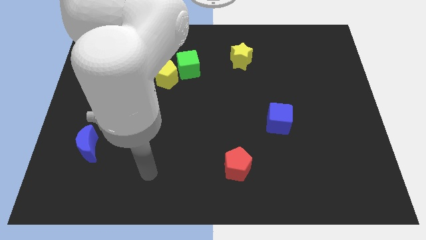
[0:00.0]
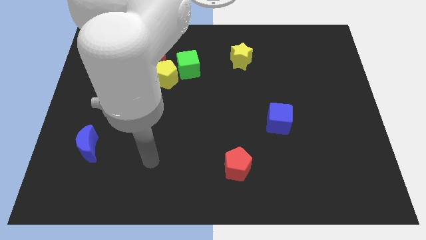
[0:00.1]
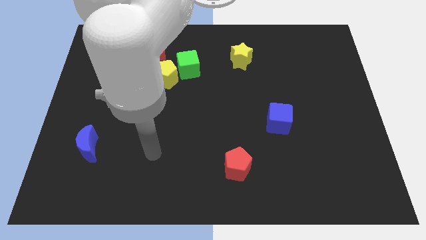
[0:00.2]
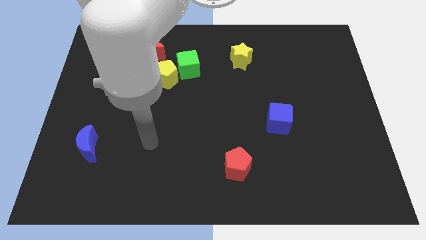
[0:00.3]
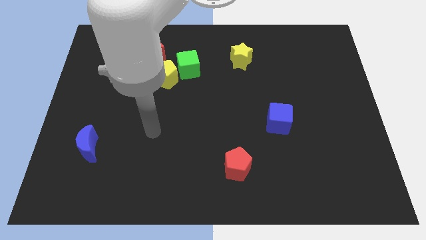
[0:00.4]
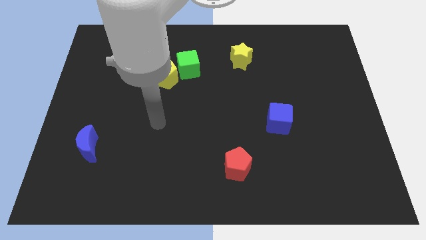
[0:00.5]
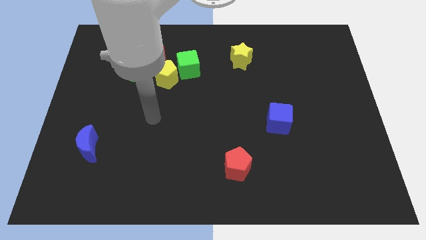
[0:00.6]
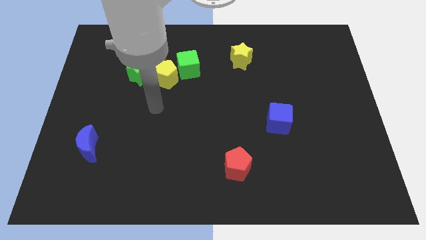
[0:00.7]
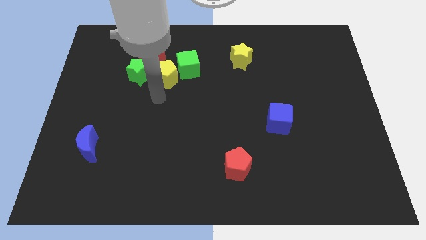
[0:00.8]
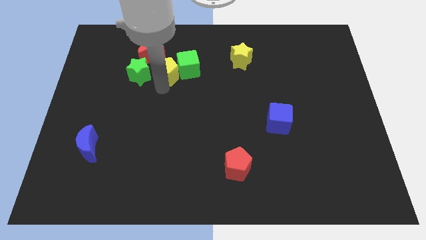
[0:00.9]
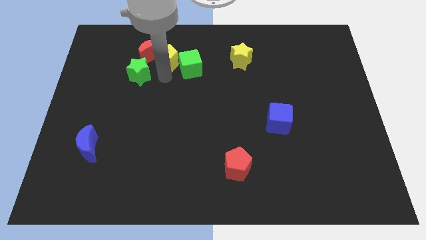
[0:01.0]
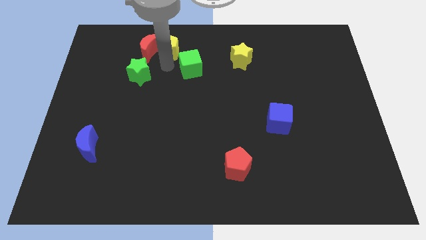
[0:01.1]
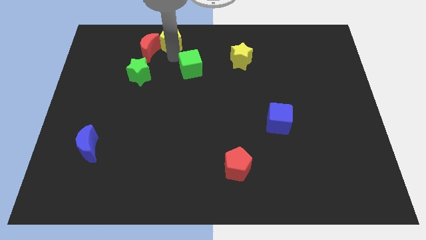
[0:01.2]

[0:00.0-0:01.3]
separate the green cube from the yellow pentagon

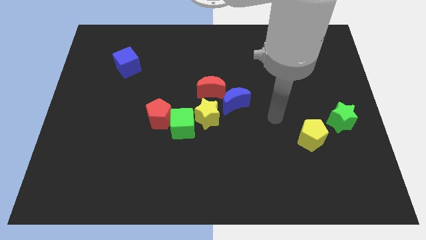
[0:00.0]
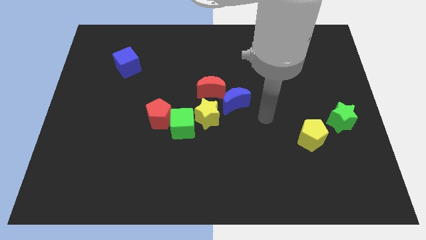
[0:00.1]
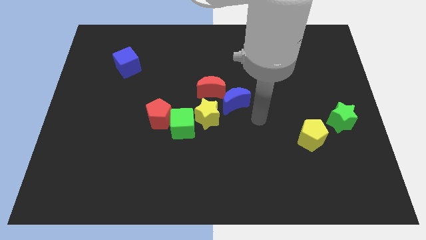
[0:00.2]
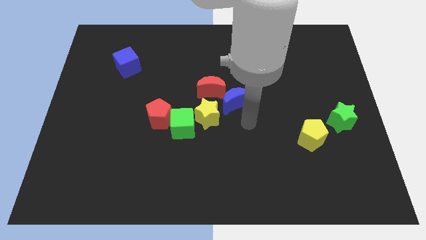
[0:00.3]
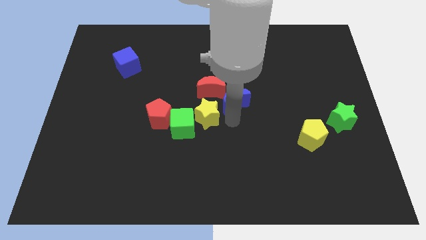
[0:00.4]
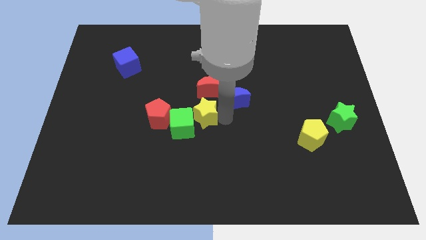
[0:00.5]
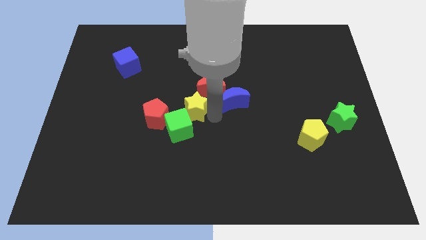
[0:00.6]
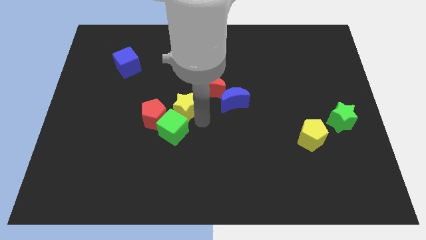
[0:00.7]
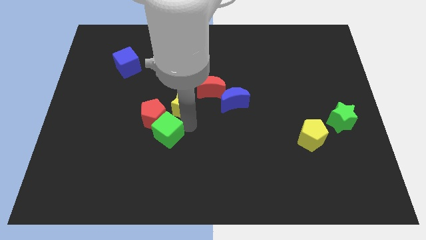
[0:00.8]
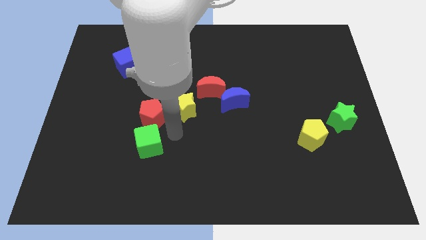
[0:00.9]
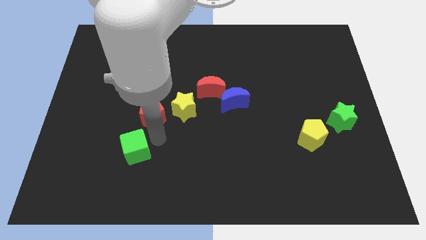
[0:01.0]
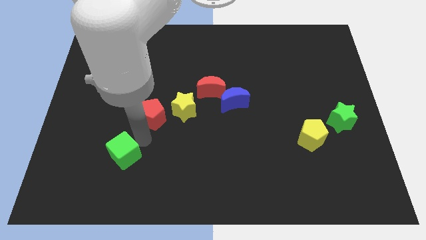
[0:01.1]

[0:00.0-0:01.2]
pull the red pentagon apart from the green cube

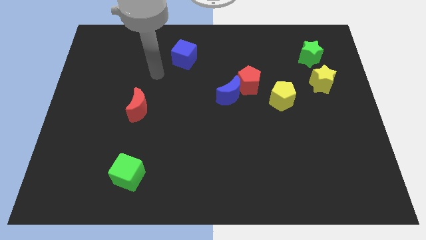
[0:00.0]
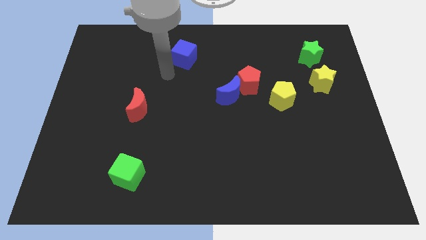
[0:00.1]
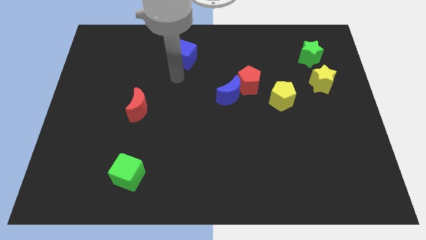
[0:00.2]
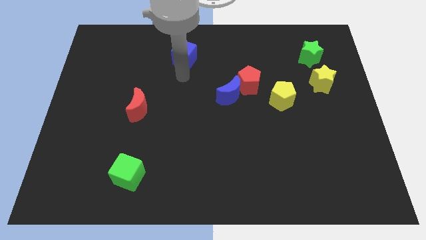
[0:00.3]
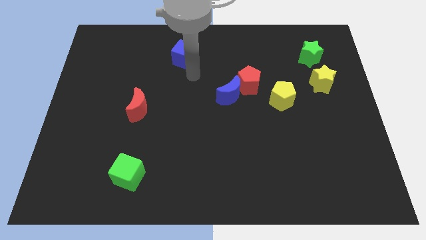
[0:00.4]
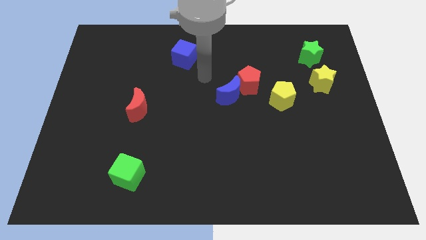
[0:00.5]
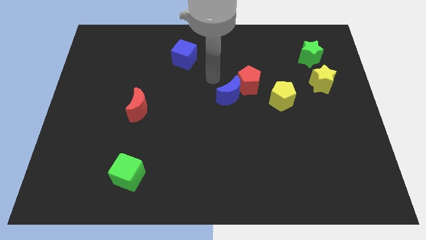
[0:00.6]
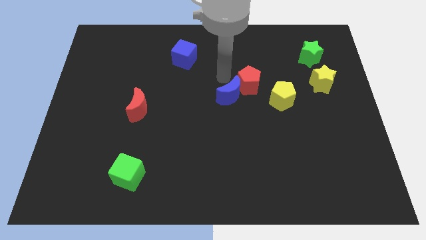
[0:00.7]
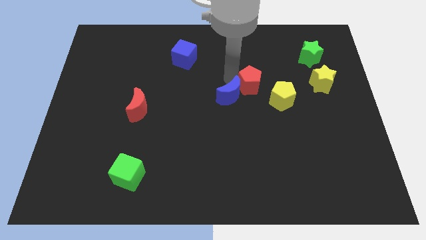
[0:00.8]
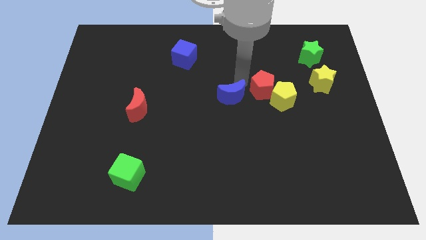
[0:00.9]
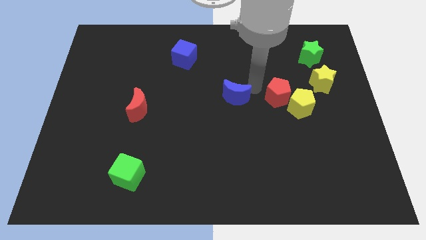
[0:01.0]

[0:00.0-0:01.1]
pull the blue moon apart from the red pentagon

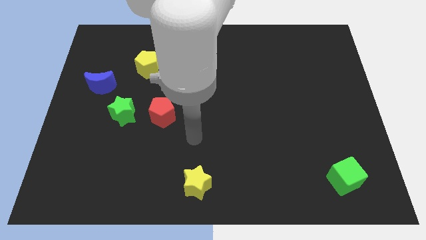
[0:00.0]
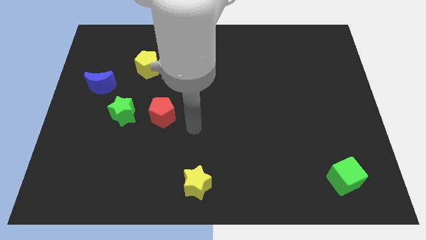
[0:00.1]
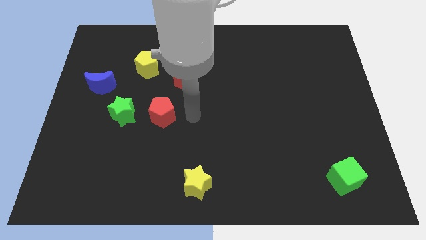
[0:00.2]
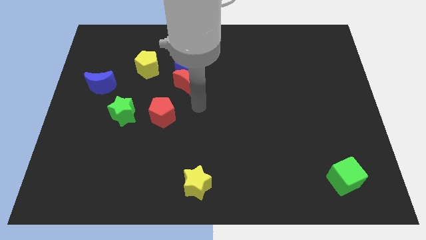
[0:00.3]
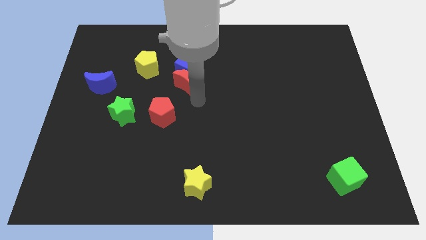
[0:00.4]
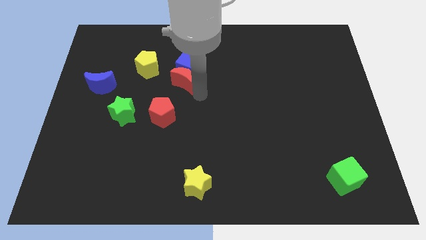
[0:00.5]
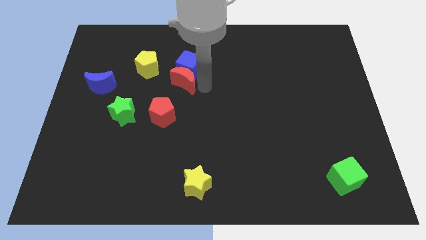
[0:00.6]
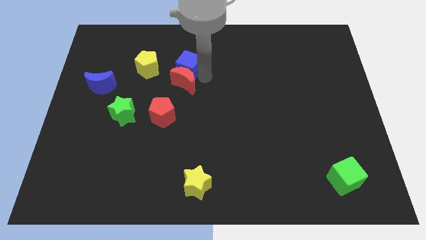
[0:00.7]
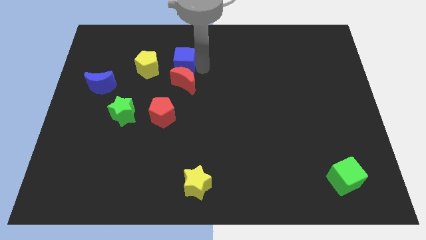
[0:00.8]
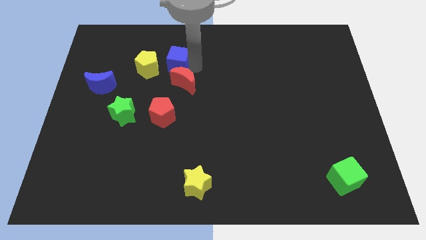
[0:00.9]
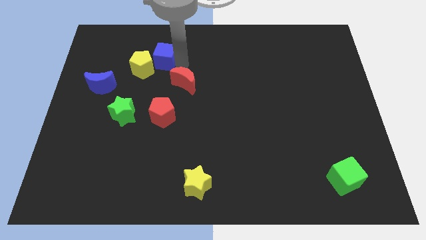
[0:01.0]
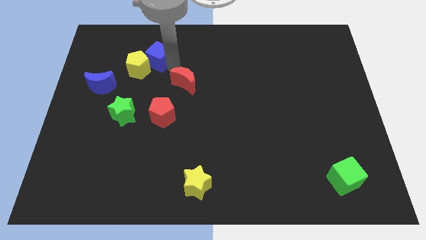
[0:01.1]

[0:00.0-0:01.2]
pull the red moon apart from the blue cube

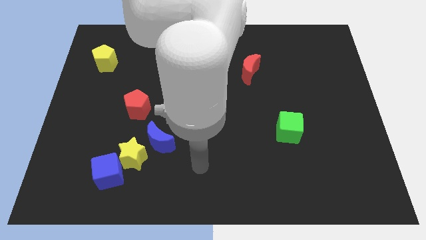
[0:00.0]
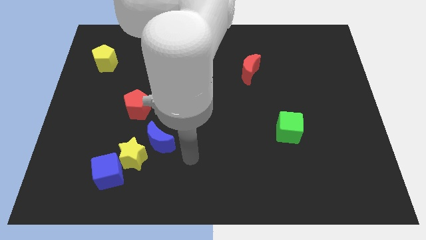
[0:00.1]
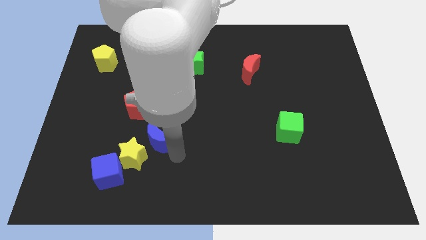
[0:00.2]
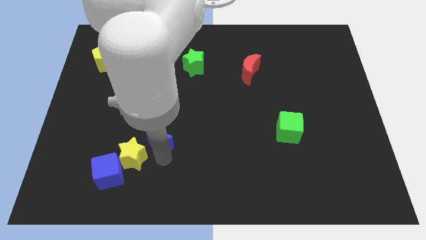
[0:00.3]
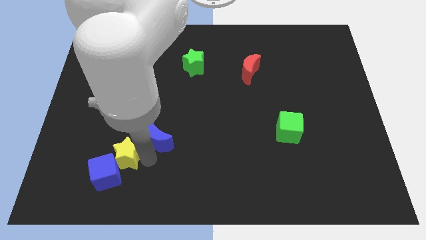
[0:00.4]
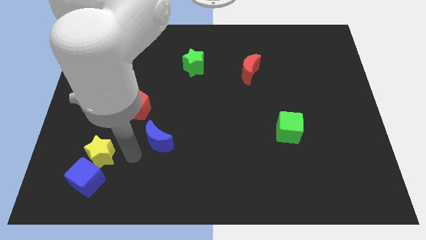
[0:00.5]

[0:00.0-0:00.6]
move the blue moon away from the yellow star

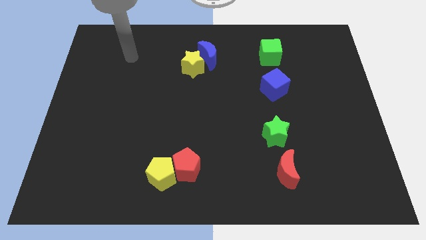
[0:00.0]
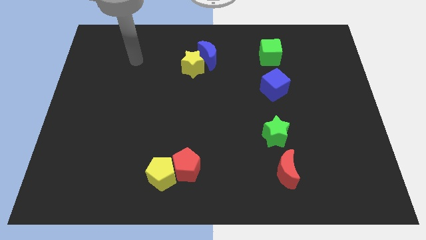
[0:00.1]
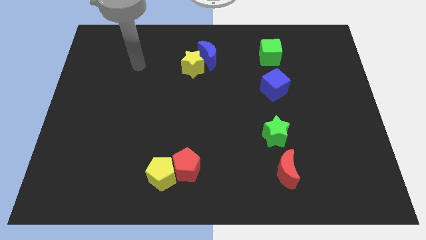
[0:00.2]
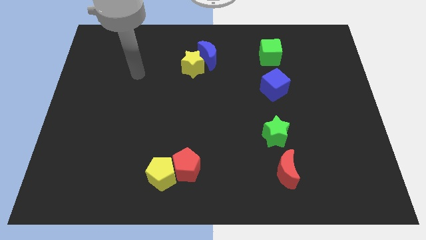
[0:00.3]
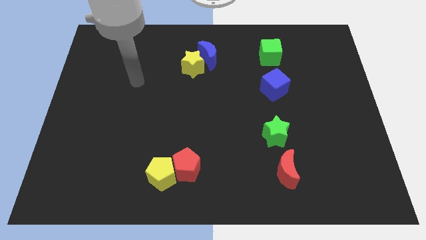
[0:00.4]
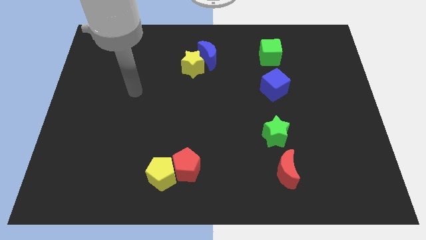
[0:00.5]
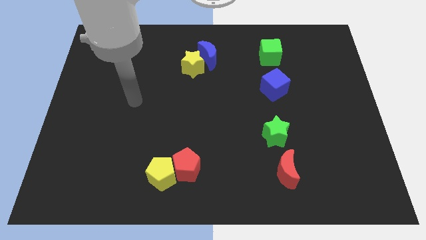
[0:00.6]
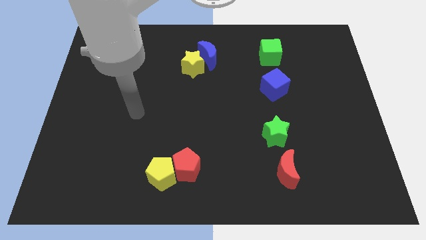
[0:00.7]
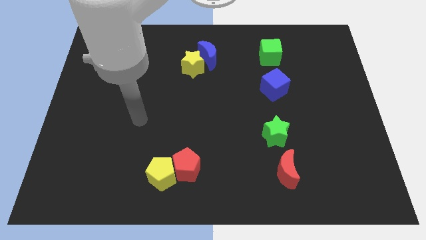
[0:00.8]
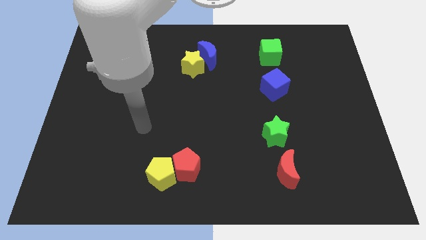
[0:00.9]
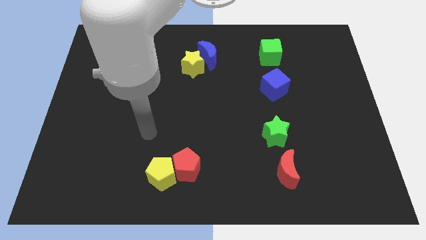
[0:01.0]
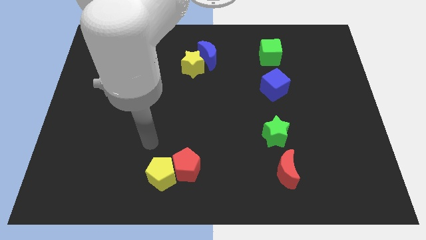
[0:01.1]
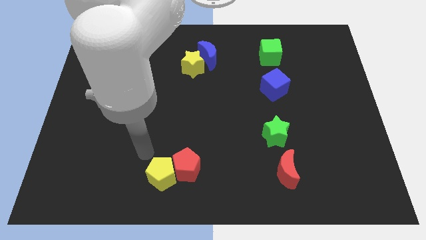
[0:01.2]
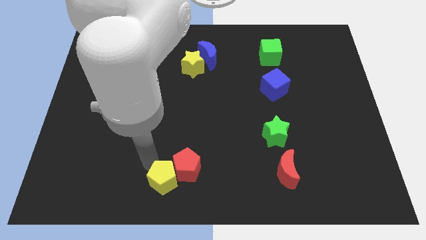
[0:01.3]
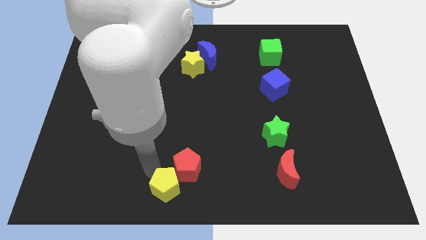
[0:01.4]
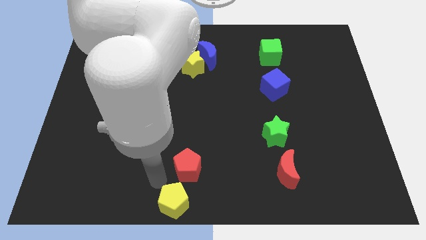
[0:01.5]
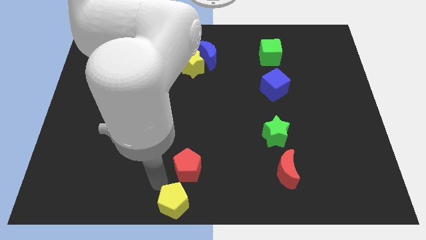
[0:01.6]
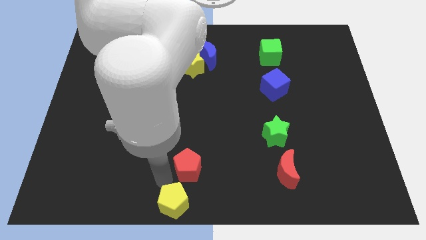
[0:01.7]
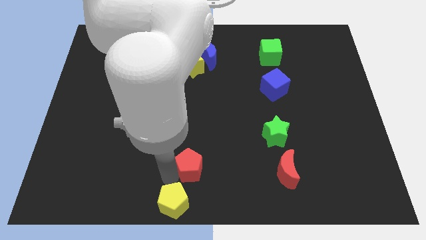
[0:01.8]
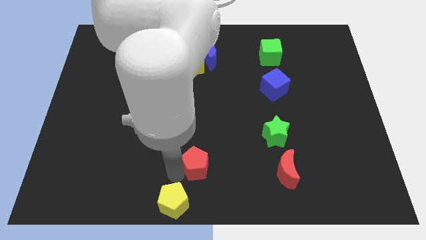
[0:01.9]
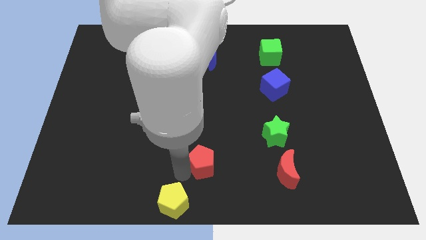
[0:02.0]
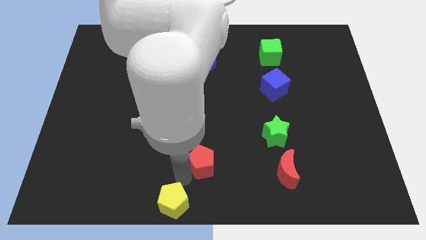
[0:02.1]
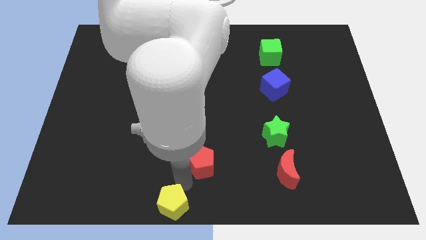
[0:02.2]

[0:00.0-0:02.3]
separate the red pentagon from the yellow pentagon

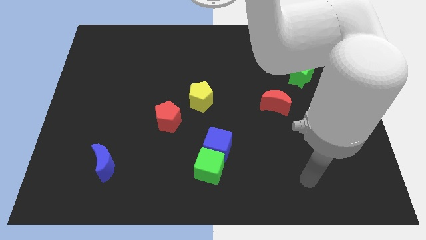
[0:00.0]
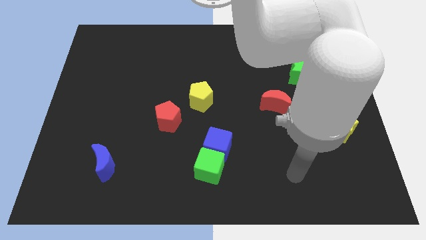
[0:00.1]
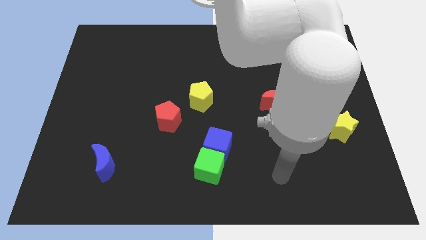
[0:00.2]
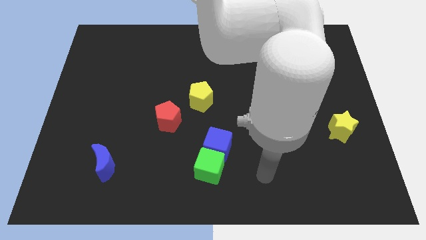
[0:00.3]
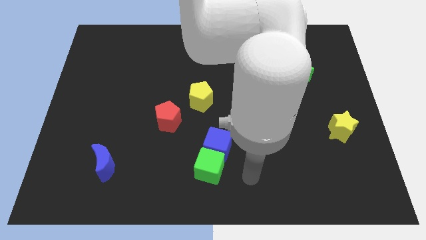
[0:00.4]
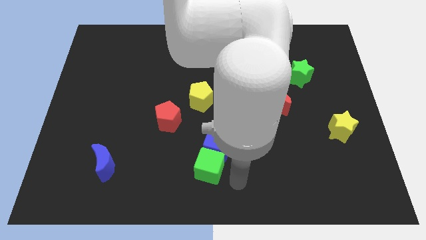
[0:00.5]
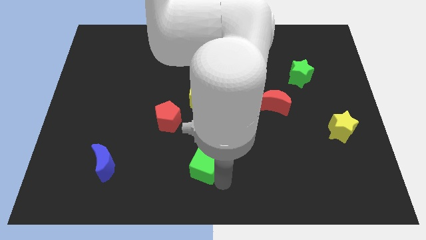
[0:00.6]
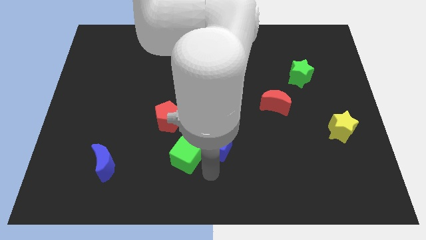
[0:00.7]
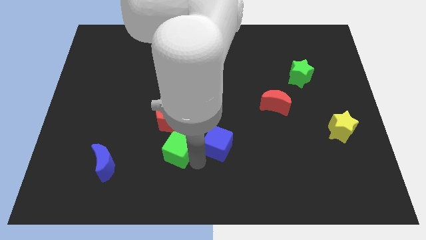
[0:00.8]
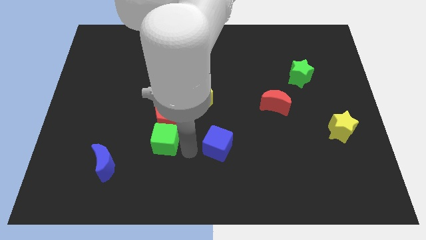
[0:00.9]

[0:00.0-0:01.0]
move the blue cube away from the green cube

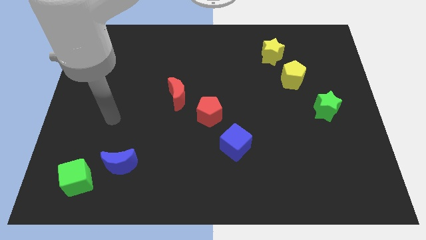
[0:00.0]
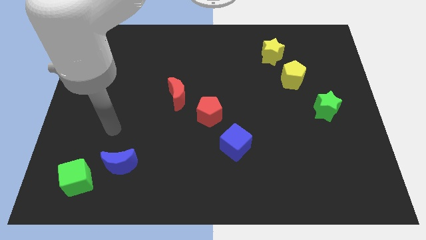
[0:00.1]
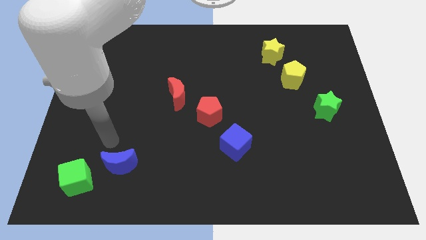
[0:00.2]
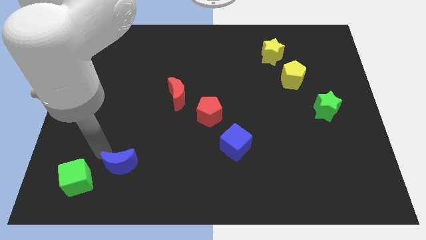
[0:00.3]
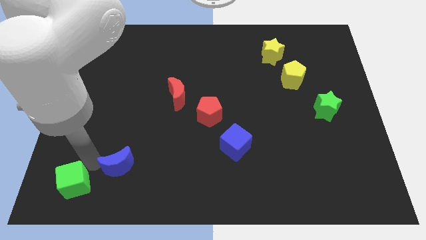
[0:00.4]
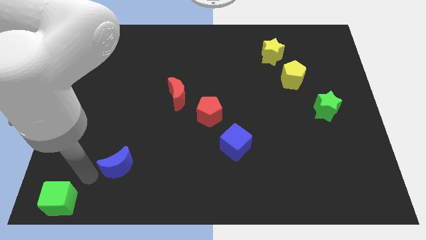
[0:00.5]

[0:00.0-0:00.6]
move the blue moon away from the green cube

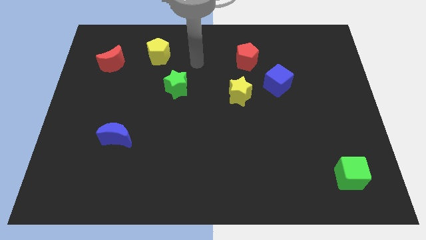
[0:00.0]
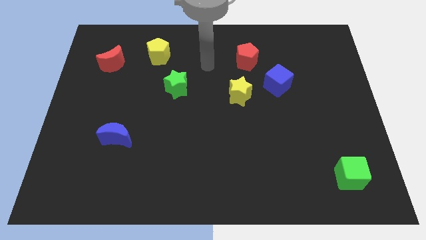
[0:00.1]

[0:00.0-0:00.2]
pull the blue cube apart from the yellow star
